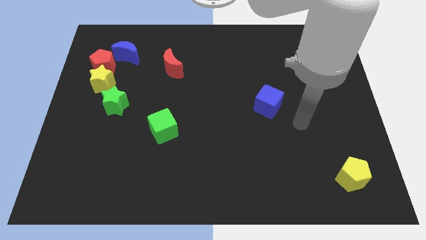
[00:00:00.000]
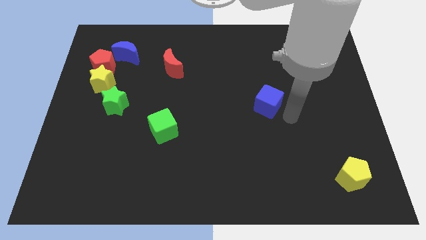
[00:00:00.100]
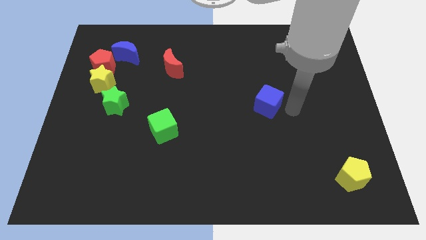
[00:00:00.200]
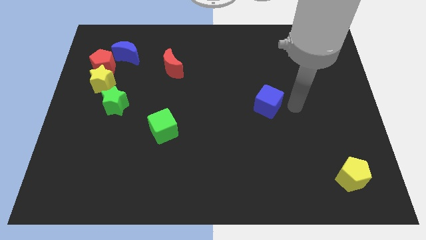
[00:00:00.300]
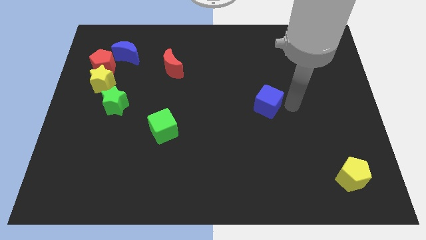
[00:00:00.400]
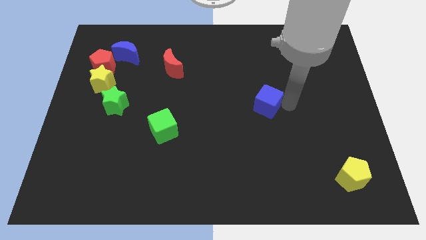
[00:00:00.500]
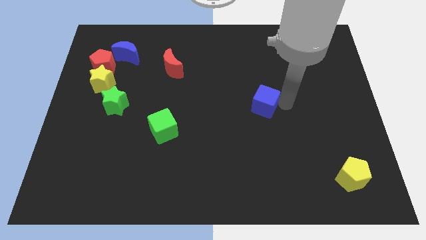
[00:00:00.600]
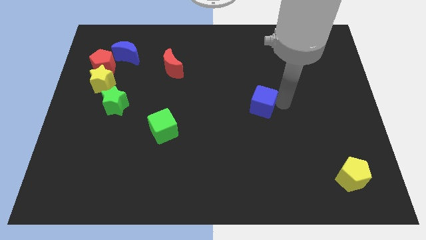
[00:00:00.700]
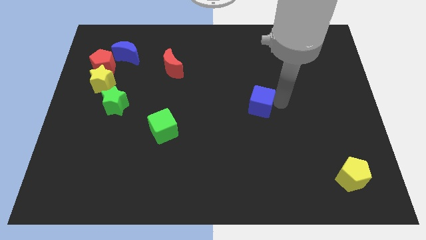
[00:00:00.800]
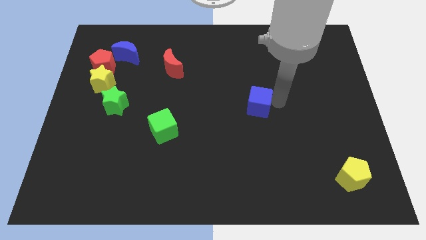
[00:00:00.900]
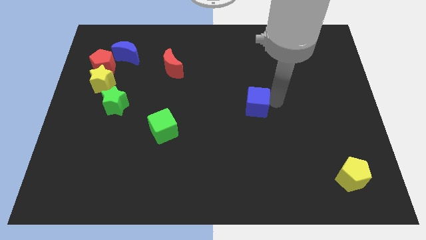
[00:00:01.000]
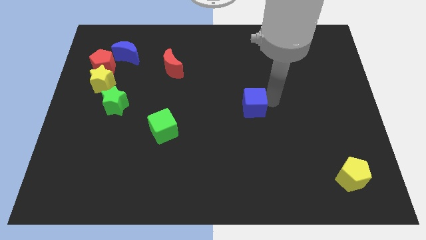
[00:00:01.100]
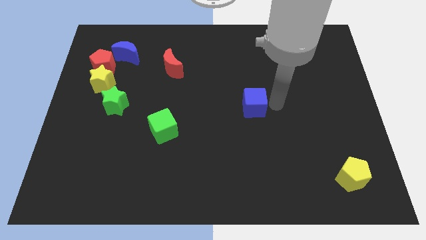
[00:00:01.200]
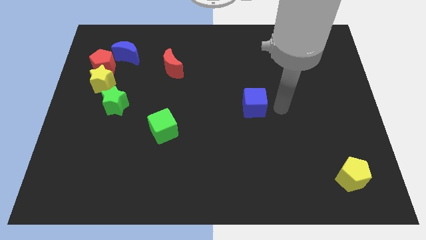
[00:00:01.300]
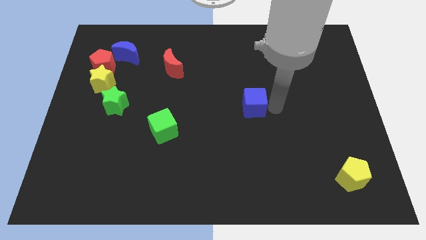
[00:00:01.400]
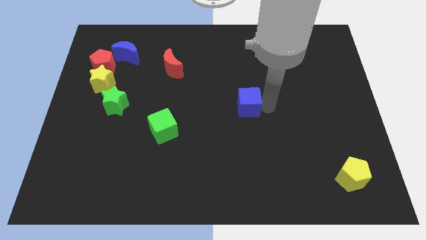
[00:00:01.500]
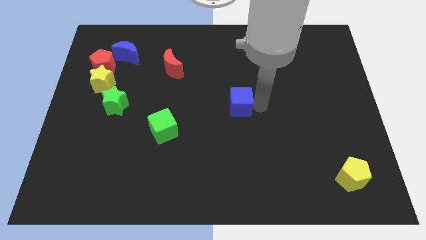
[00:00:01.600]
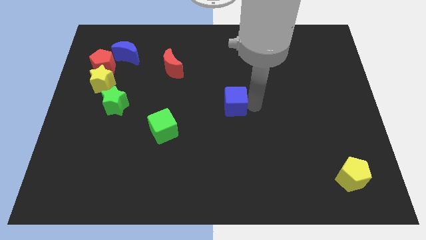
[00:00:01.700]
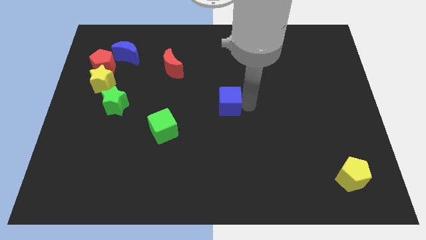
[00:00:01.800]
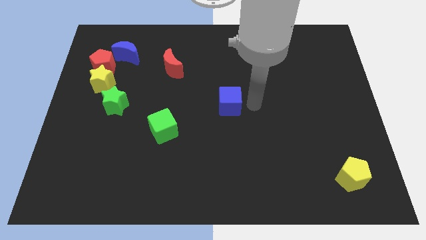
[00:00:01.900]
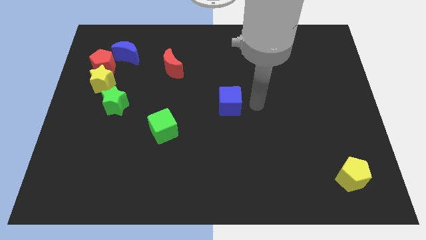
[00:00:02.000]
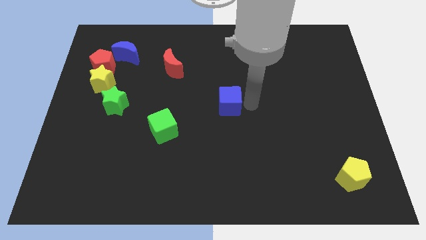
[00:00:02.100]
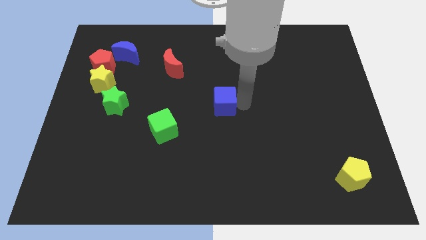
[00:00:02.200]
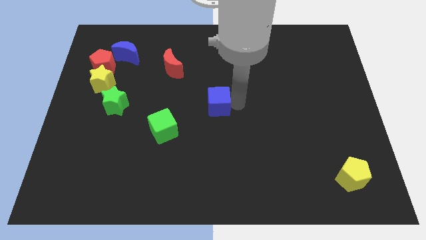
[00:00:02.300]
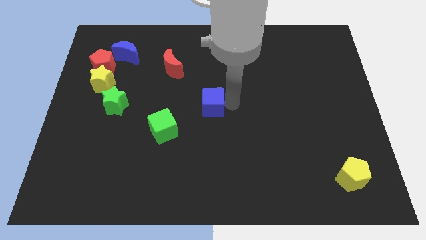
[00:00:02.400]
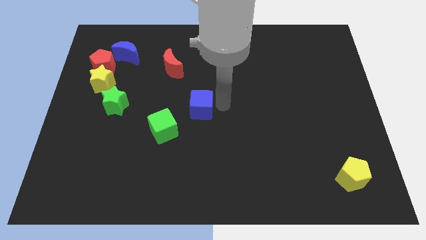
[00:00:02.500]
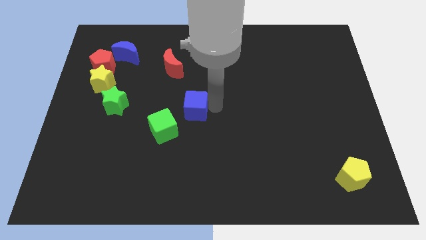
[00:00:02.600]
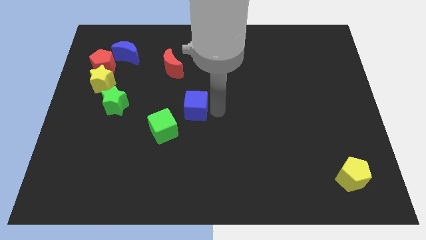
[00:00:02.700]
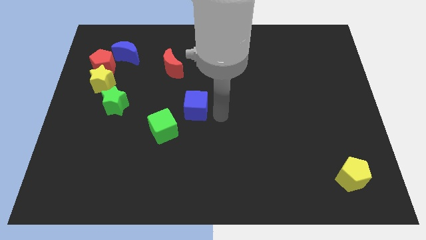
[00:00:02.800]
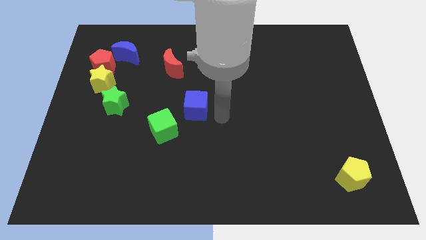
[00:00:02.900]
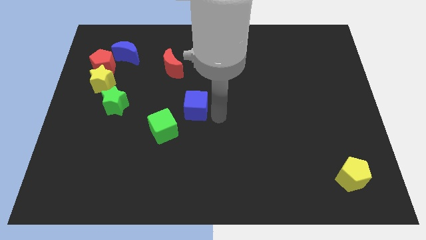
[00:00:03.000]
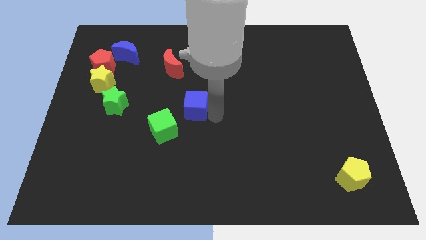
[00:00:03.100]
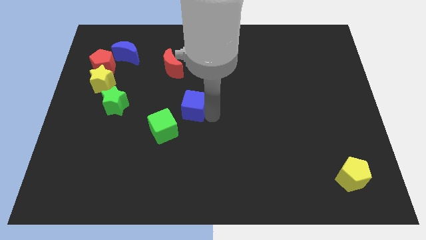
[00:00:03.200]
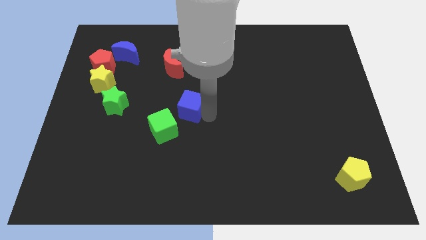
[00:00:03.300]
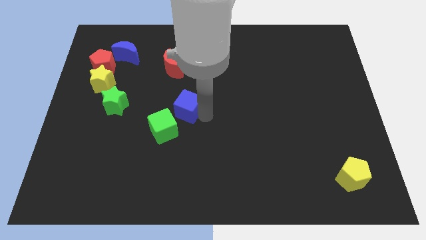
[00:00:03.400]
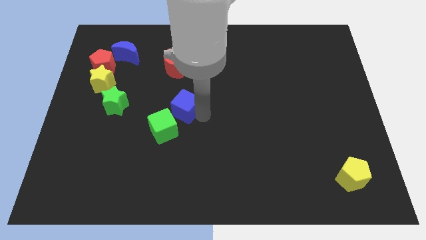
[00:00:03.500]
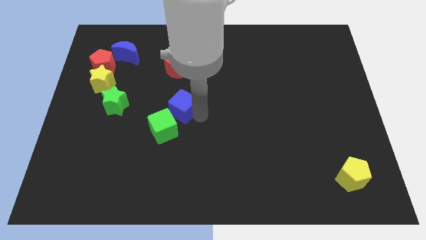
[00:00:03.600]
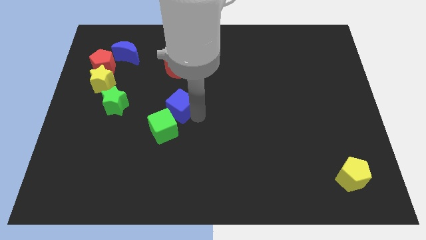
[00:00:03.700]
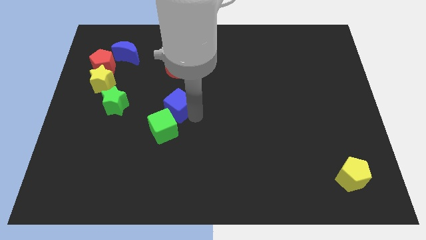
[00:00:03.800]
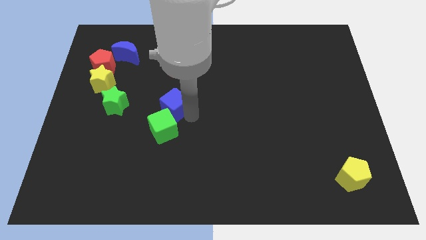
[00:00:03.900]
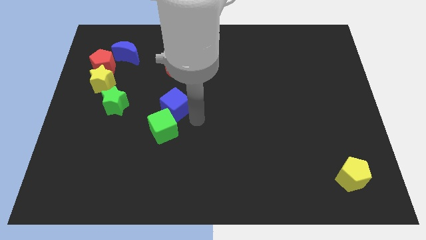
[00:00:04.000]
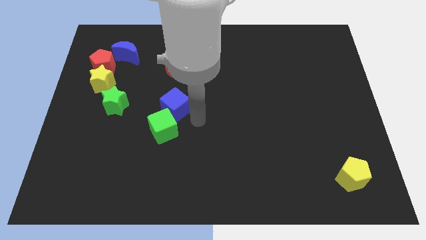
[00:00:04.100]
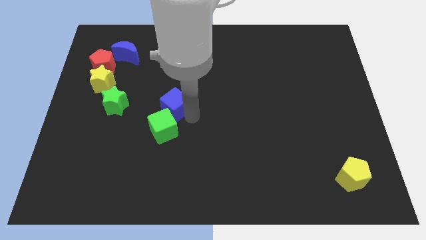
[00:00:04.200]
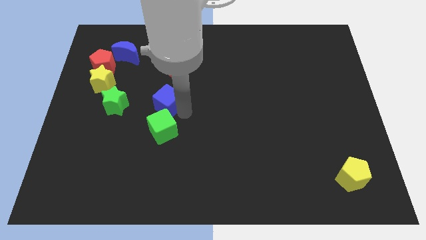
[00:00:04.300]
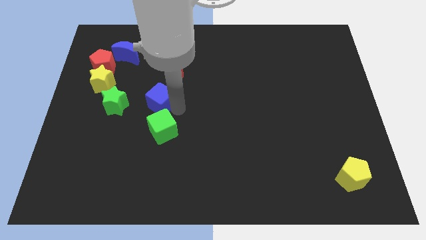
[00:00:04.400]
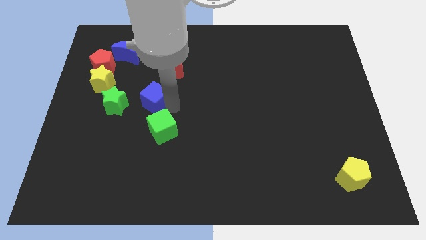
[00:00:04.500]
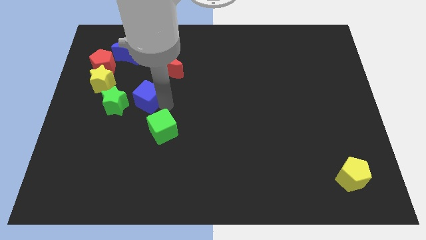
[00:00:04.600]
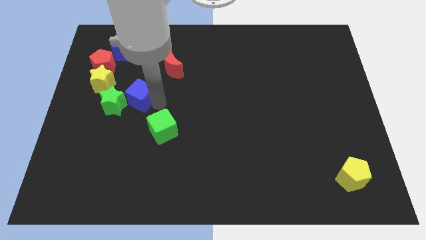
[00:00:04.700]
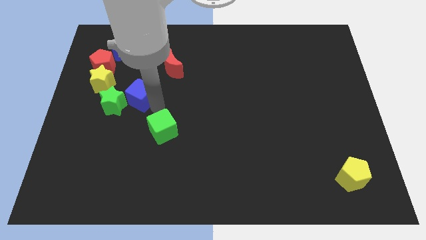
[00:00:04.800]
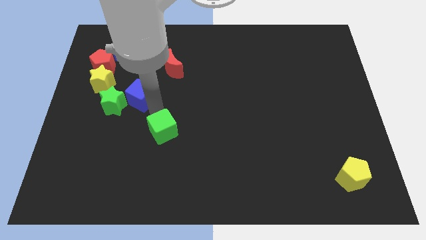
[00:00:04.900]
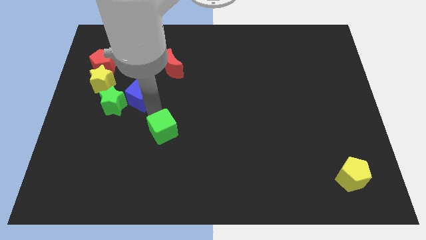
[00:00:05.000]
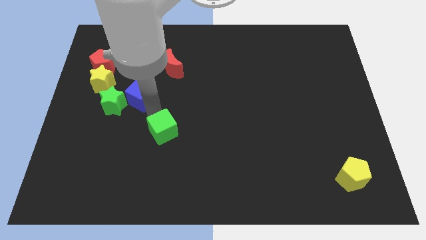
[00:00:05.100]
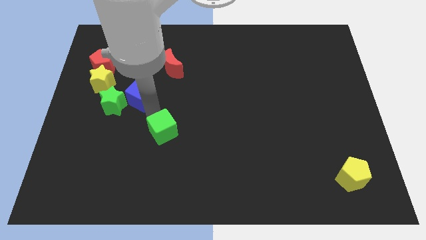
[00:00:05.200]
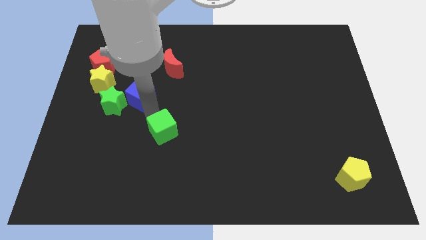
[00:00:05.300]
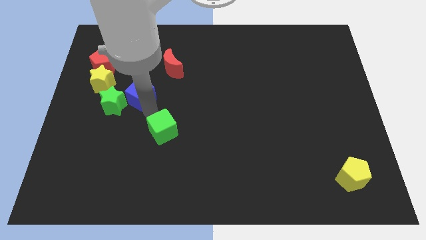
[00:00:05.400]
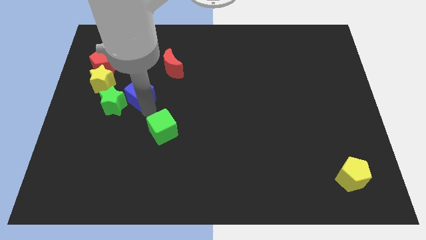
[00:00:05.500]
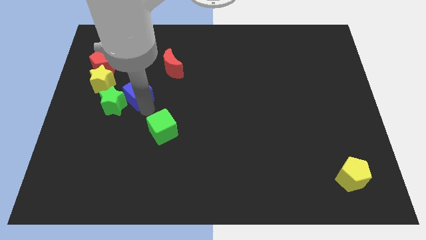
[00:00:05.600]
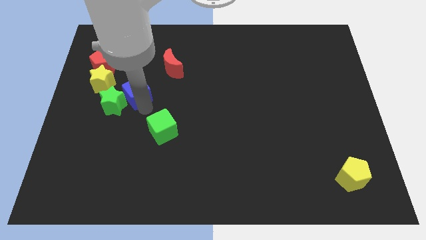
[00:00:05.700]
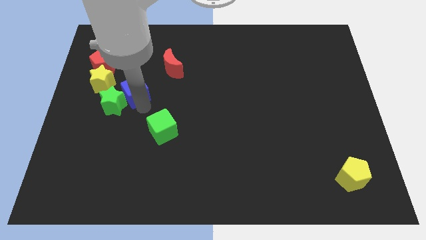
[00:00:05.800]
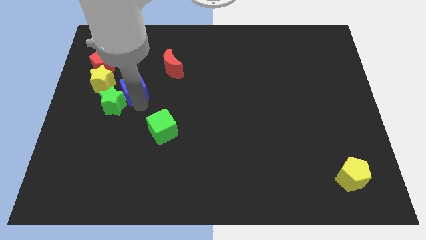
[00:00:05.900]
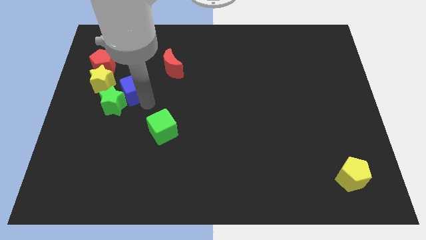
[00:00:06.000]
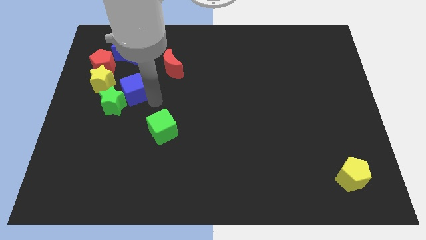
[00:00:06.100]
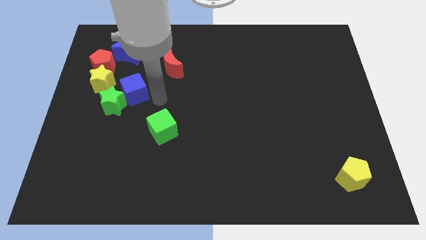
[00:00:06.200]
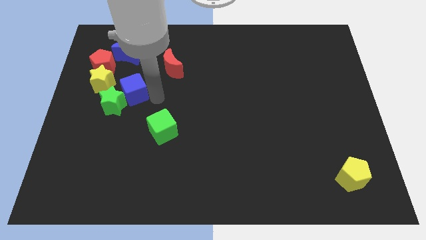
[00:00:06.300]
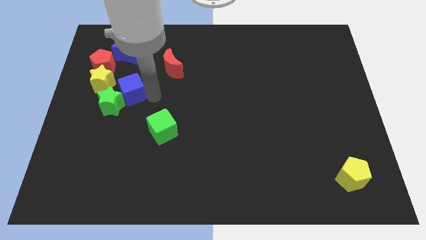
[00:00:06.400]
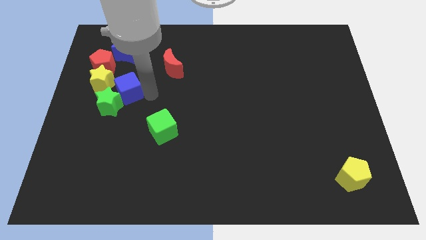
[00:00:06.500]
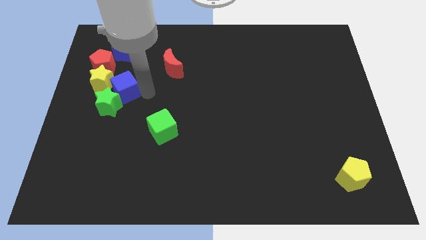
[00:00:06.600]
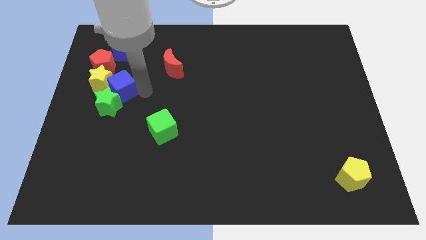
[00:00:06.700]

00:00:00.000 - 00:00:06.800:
push the blue cube to the yellow star

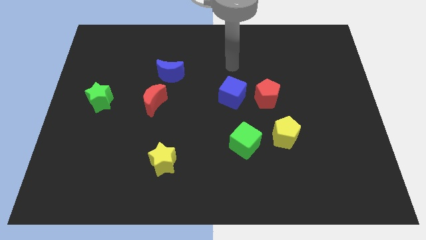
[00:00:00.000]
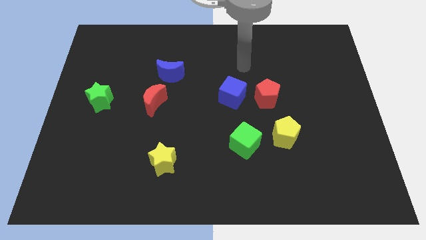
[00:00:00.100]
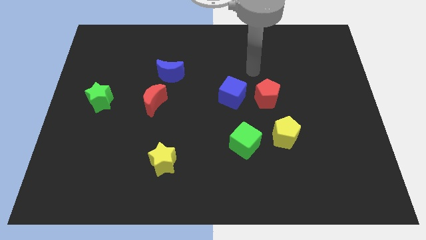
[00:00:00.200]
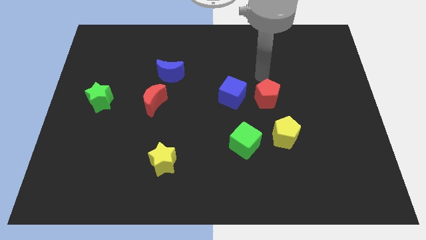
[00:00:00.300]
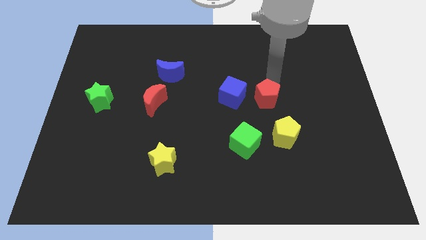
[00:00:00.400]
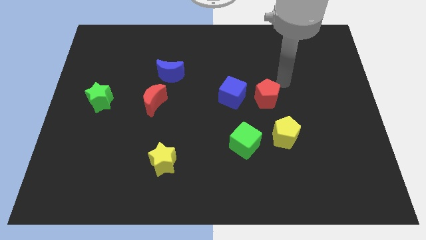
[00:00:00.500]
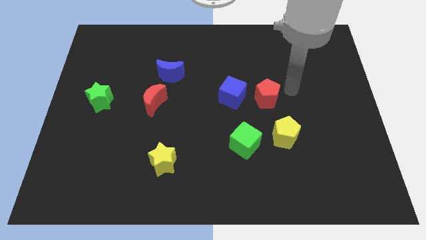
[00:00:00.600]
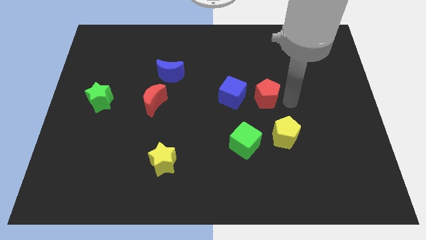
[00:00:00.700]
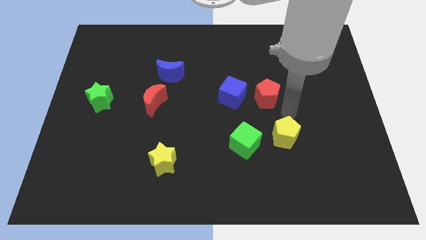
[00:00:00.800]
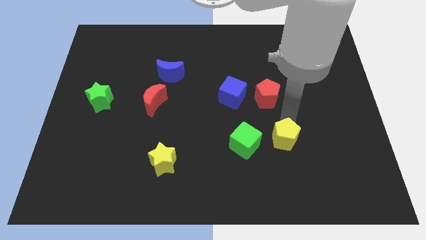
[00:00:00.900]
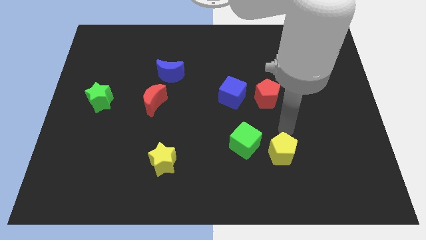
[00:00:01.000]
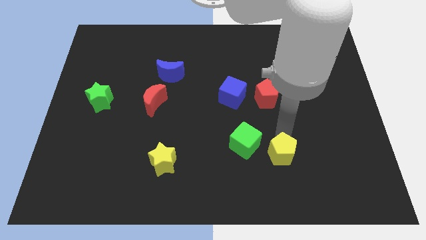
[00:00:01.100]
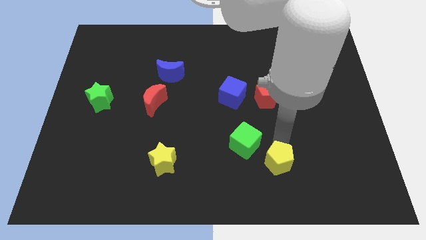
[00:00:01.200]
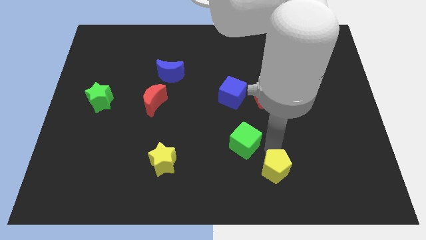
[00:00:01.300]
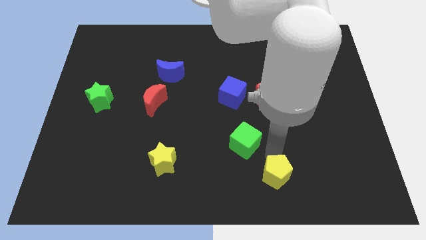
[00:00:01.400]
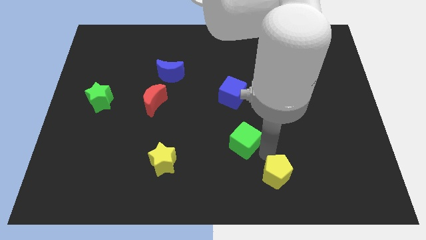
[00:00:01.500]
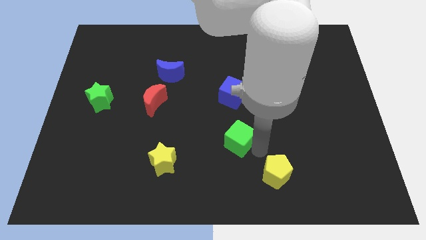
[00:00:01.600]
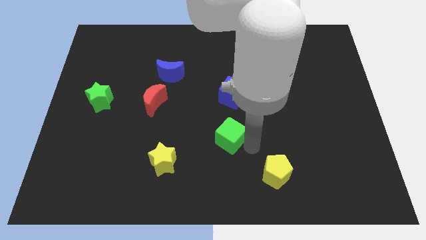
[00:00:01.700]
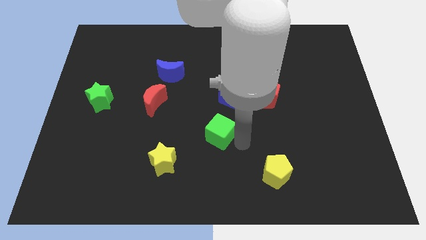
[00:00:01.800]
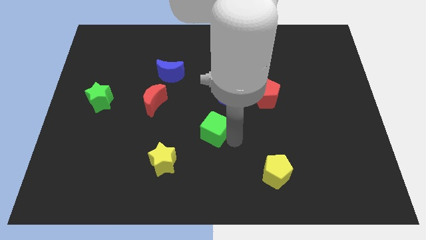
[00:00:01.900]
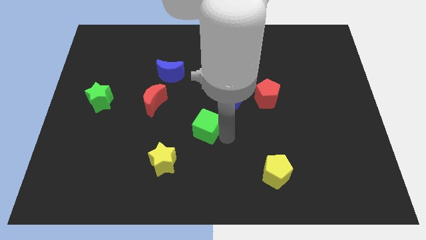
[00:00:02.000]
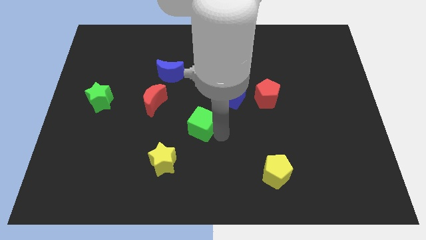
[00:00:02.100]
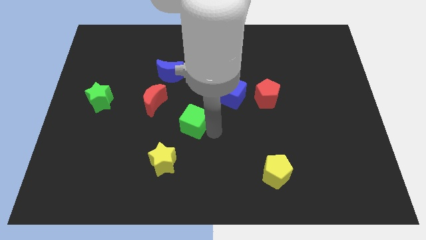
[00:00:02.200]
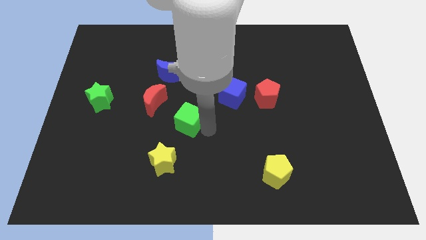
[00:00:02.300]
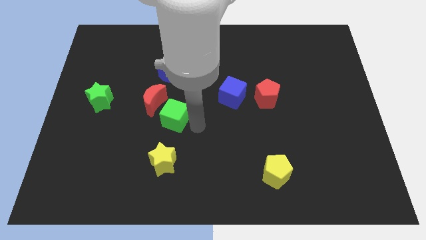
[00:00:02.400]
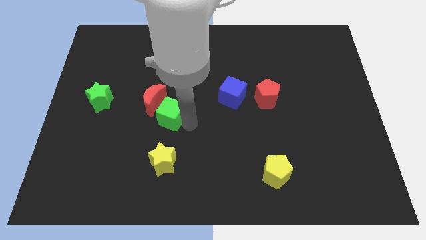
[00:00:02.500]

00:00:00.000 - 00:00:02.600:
slide the green cube next to the red moon
